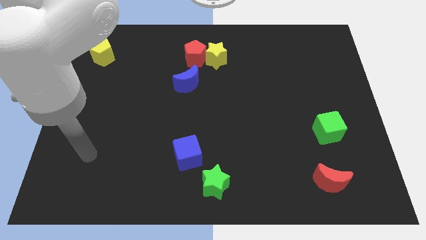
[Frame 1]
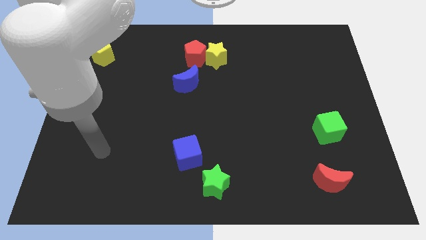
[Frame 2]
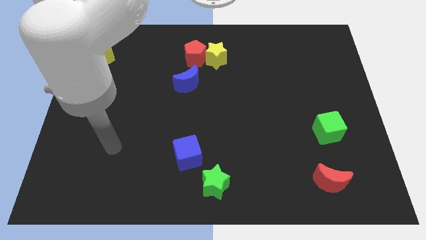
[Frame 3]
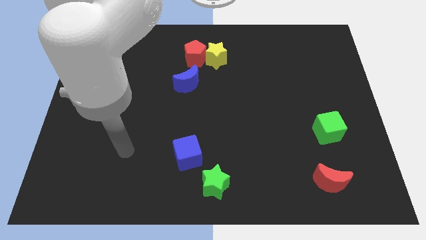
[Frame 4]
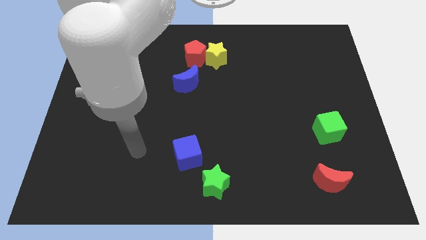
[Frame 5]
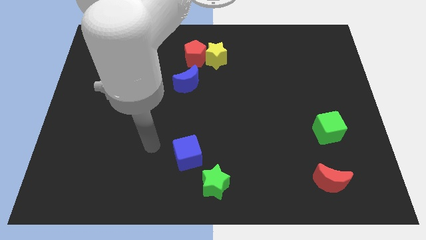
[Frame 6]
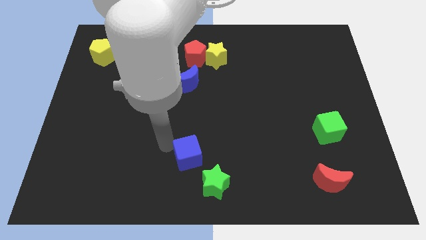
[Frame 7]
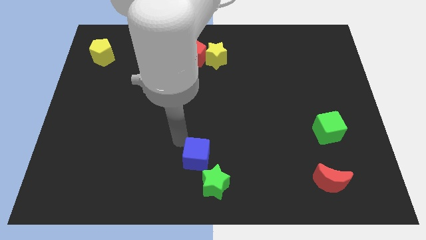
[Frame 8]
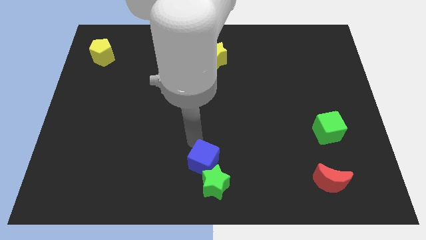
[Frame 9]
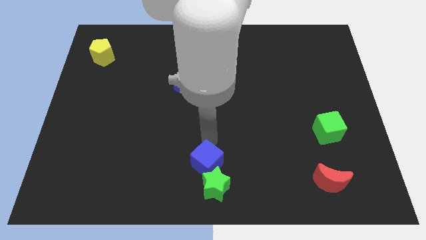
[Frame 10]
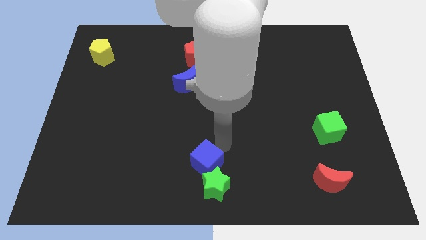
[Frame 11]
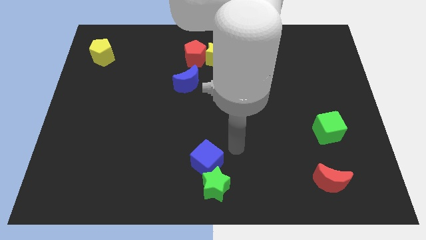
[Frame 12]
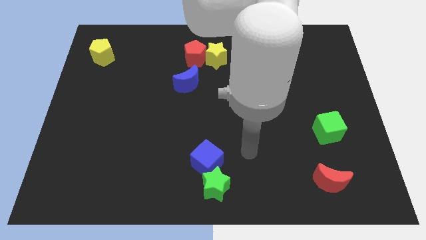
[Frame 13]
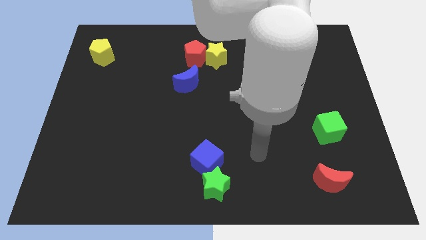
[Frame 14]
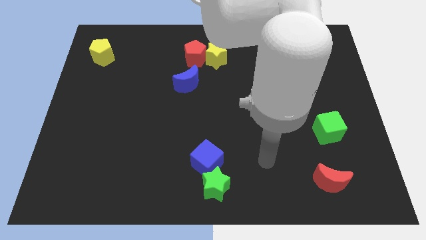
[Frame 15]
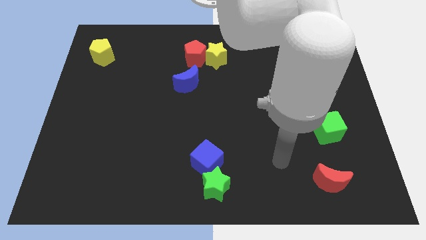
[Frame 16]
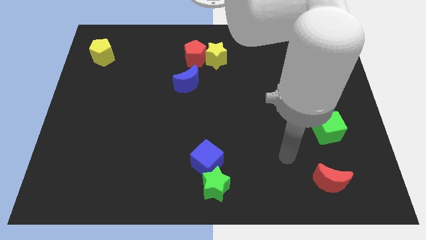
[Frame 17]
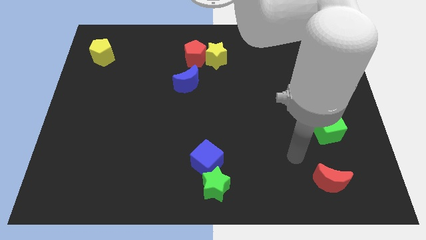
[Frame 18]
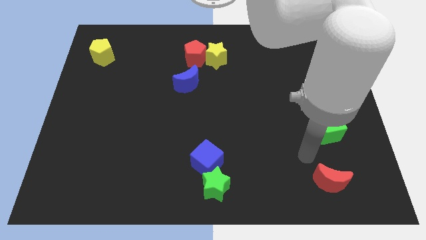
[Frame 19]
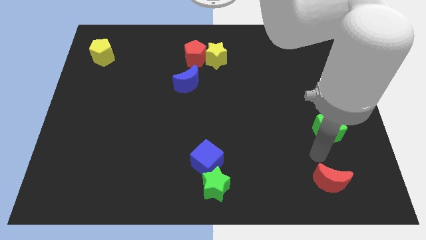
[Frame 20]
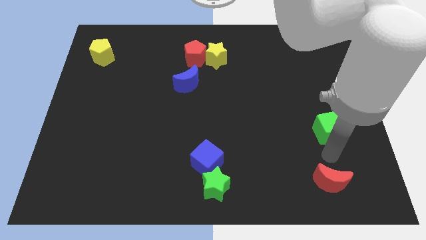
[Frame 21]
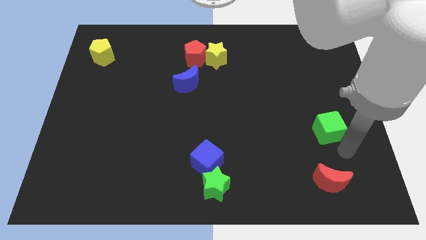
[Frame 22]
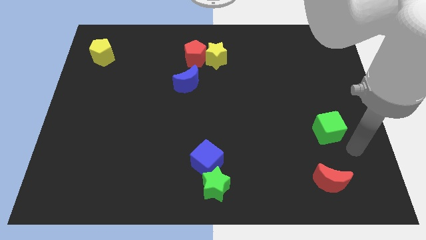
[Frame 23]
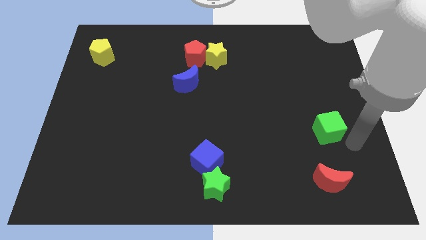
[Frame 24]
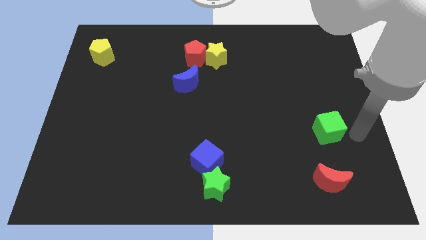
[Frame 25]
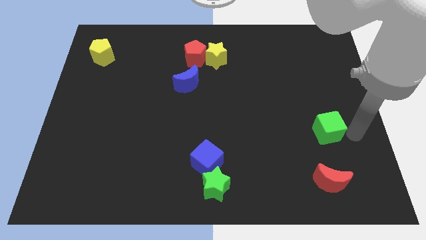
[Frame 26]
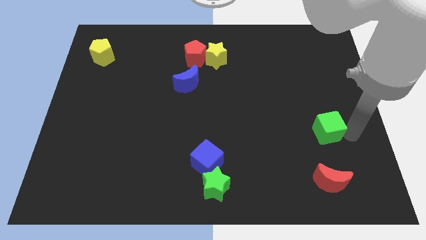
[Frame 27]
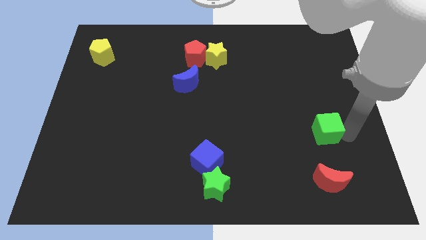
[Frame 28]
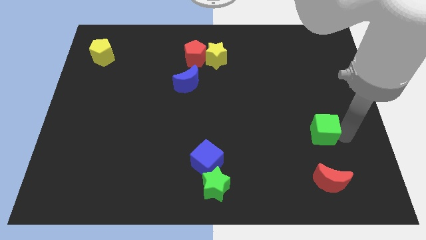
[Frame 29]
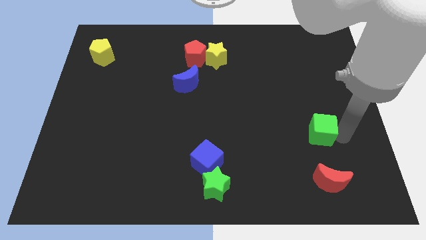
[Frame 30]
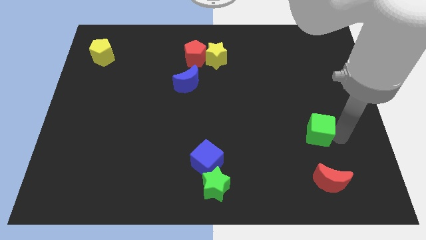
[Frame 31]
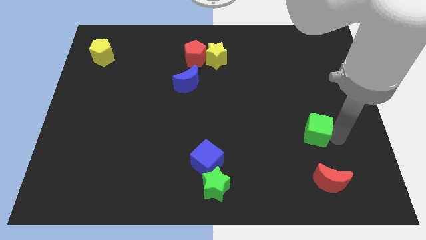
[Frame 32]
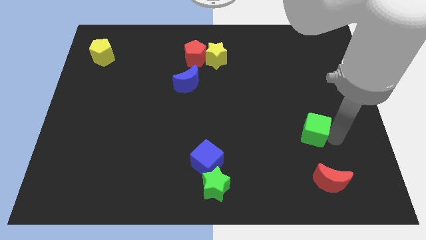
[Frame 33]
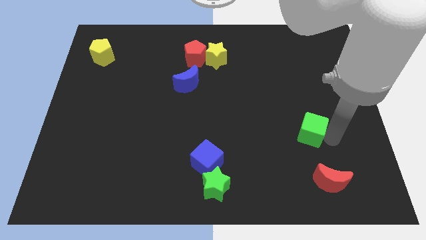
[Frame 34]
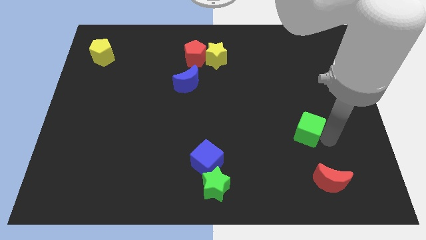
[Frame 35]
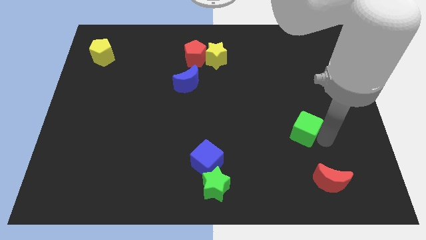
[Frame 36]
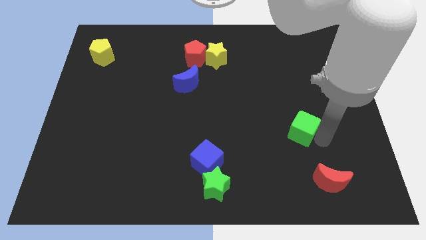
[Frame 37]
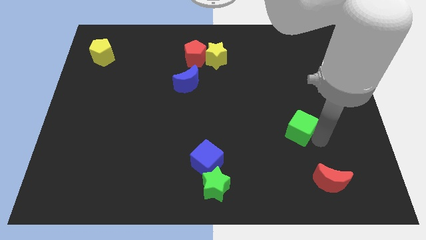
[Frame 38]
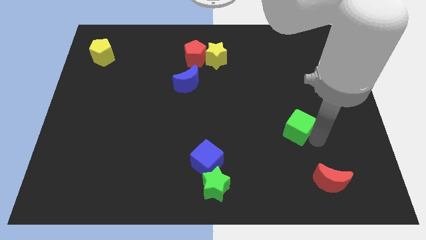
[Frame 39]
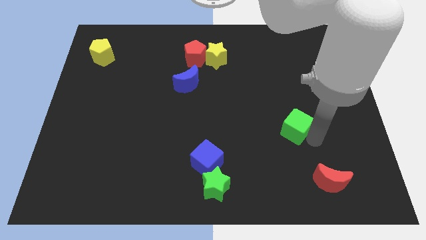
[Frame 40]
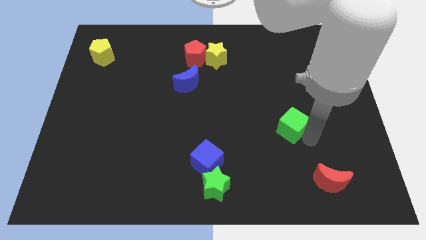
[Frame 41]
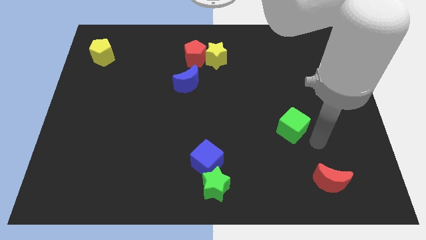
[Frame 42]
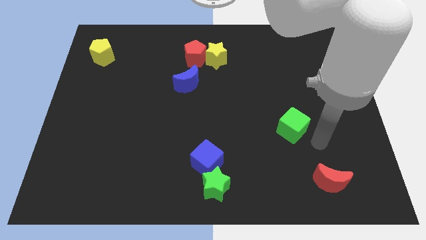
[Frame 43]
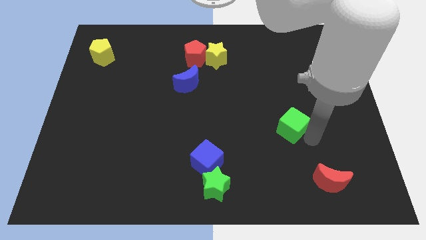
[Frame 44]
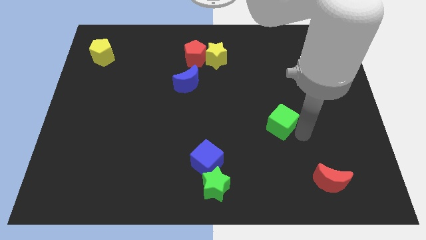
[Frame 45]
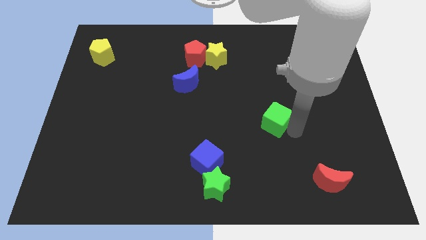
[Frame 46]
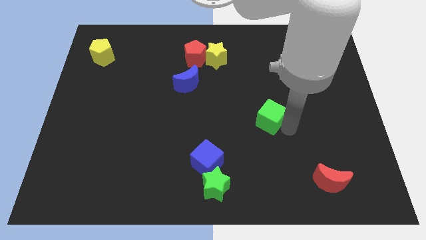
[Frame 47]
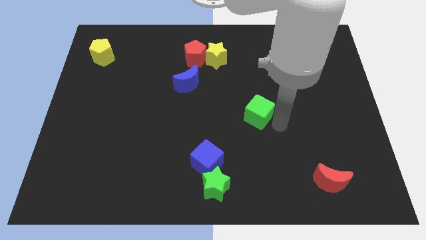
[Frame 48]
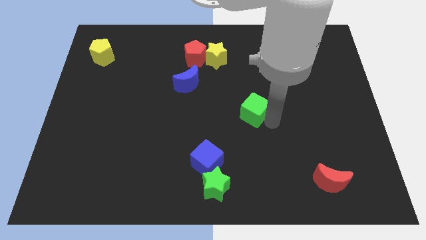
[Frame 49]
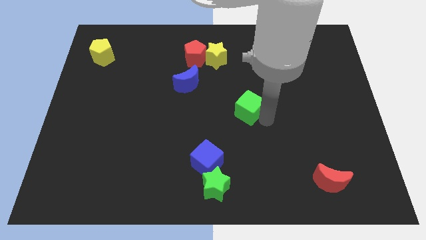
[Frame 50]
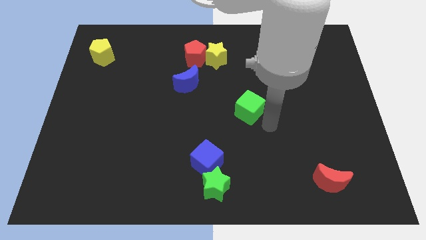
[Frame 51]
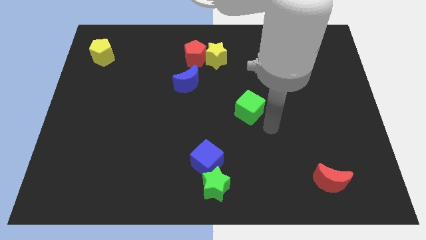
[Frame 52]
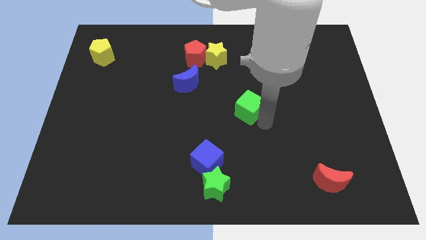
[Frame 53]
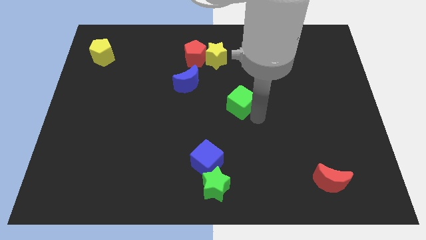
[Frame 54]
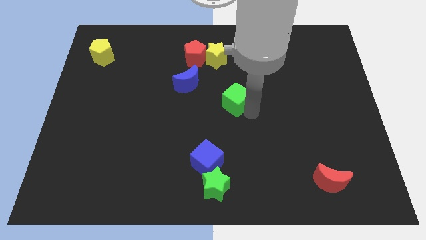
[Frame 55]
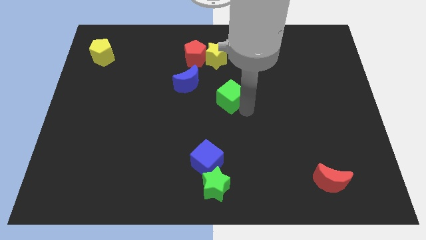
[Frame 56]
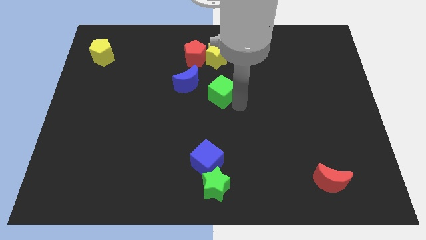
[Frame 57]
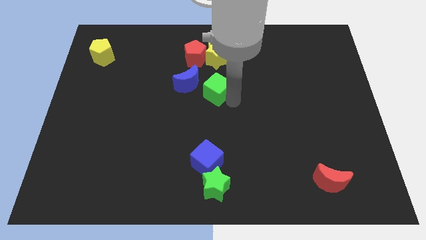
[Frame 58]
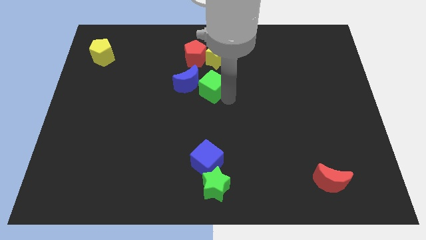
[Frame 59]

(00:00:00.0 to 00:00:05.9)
slide the green cube towards the blue moon
